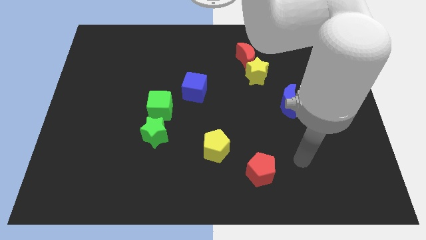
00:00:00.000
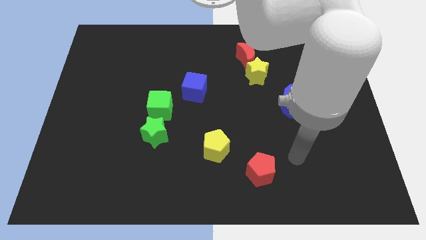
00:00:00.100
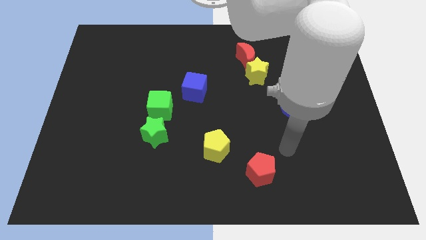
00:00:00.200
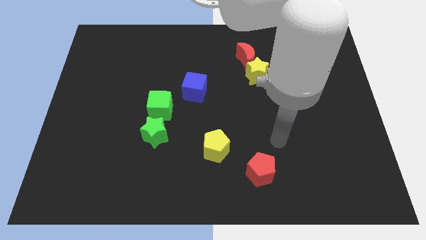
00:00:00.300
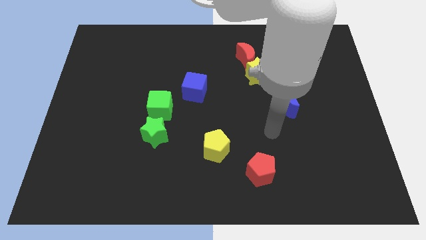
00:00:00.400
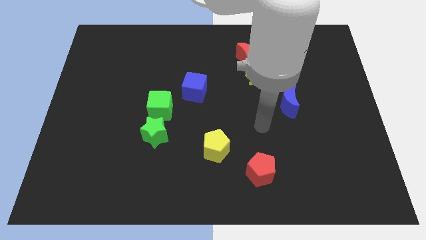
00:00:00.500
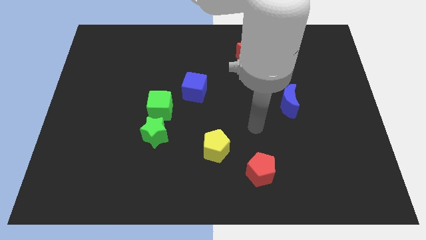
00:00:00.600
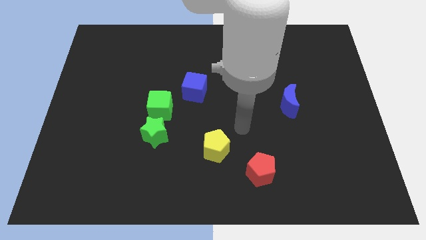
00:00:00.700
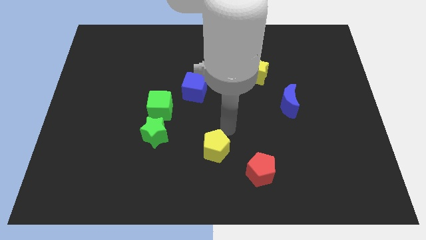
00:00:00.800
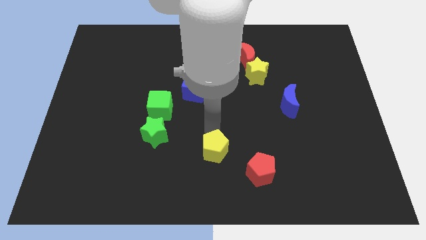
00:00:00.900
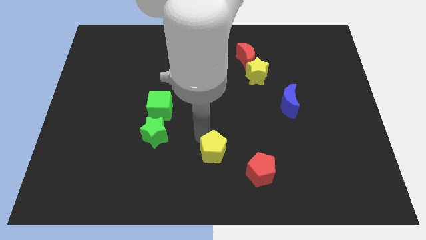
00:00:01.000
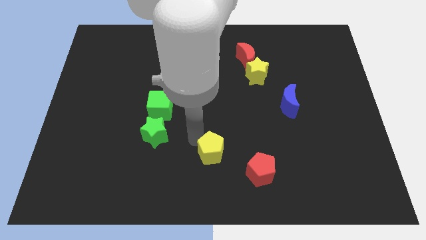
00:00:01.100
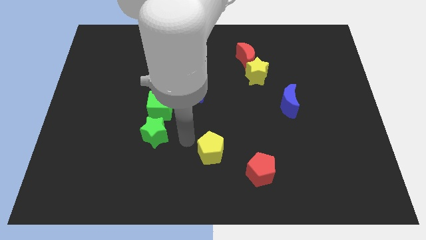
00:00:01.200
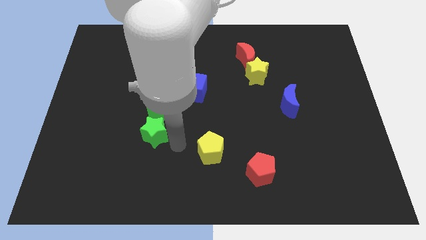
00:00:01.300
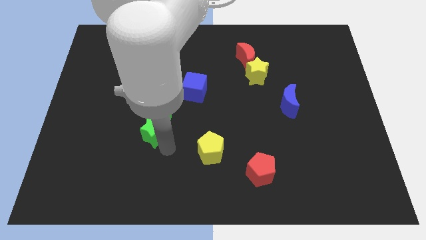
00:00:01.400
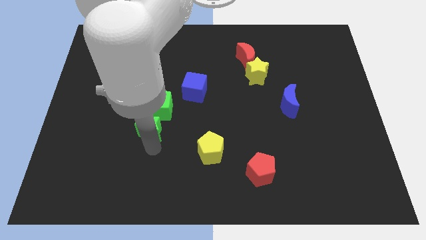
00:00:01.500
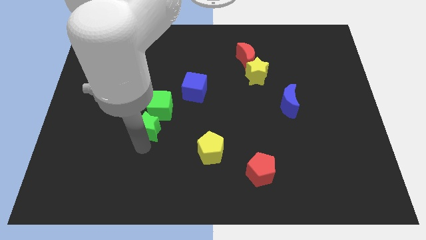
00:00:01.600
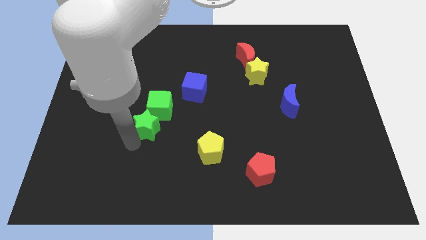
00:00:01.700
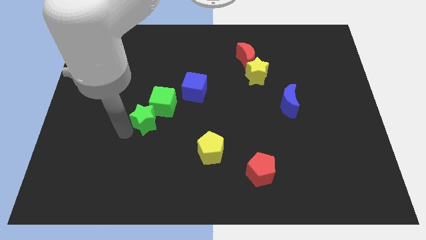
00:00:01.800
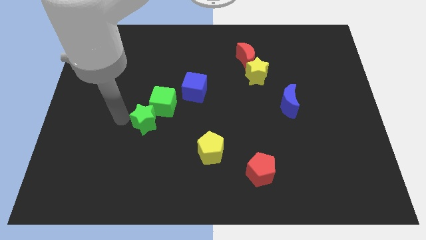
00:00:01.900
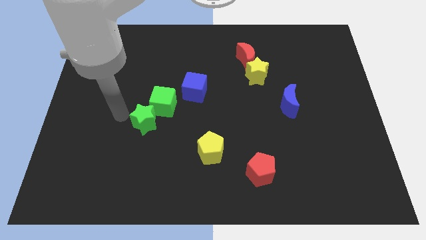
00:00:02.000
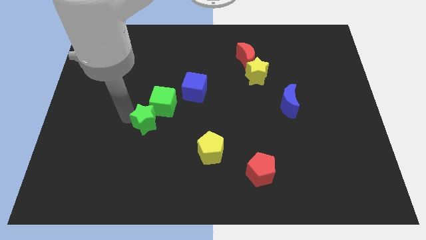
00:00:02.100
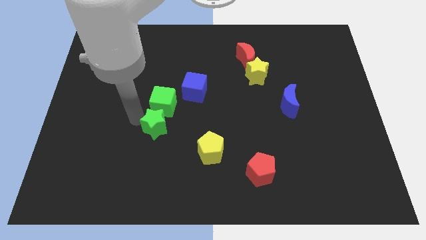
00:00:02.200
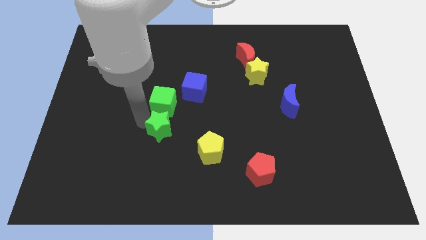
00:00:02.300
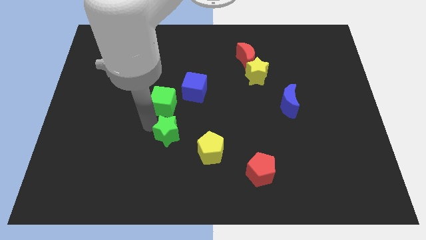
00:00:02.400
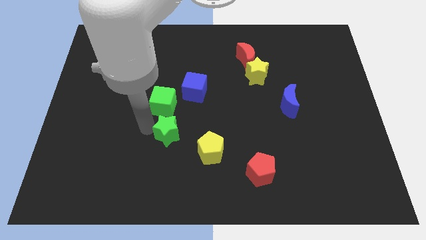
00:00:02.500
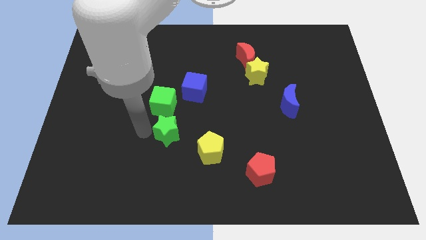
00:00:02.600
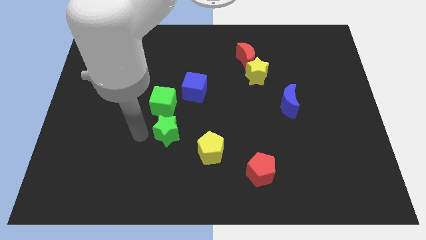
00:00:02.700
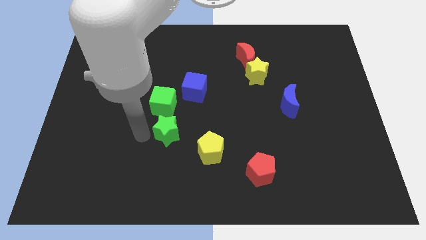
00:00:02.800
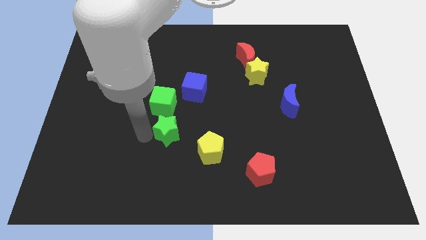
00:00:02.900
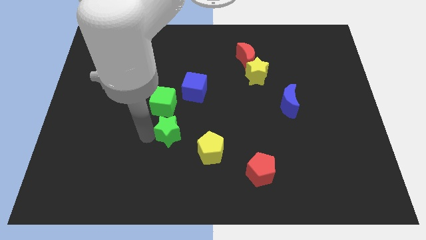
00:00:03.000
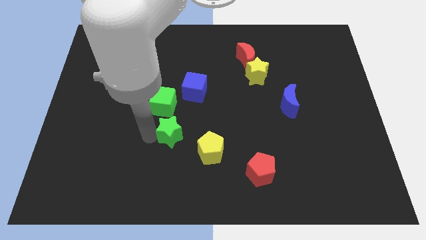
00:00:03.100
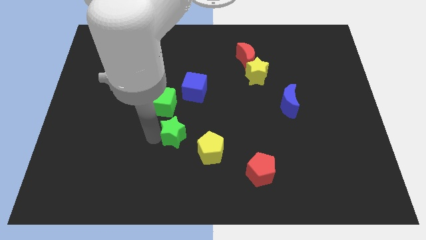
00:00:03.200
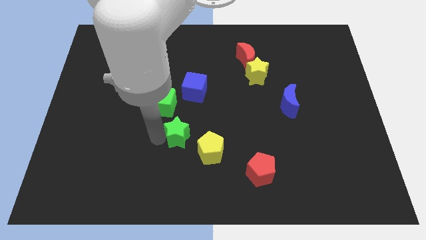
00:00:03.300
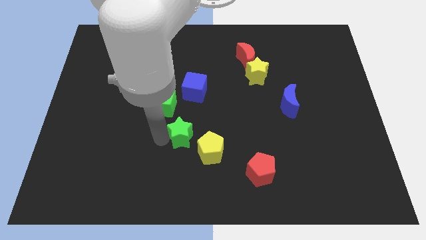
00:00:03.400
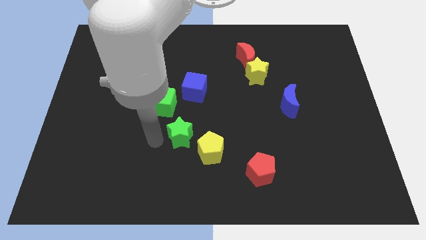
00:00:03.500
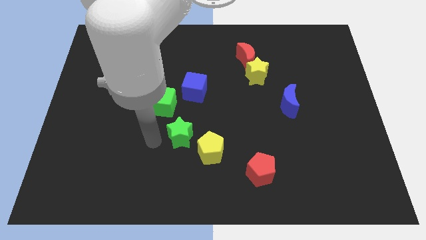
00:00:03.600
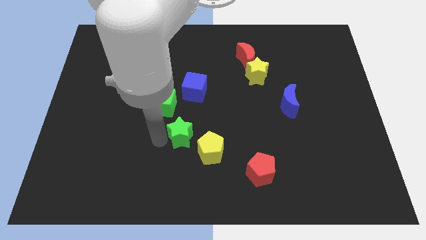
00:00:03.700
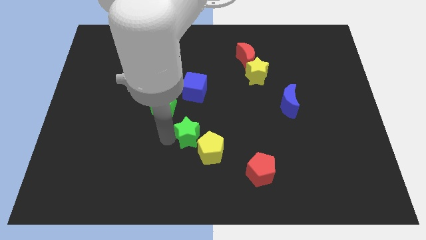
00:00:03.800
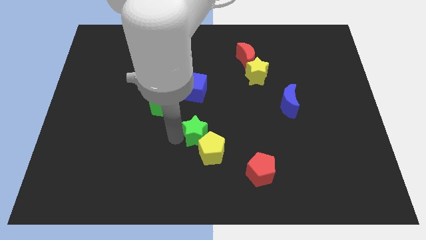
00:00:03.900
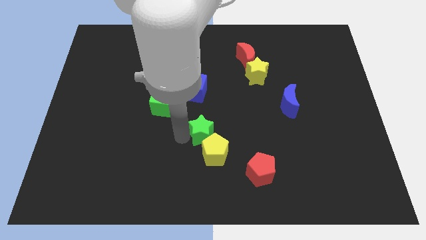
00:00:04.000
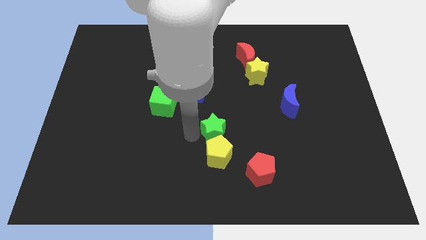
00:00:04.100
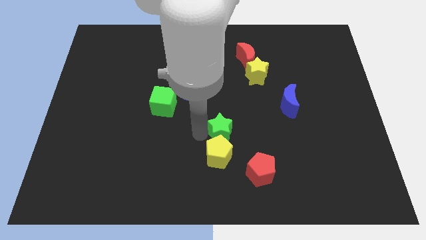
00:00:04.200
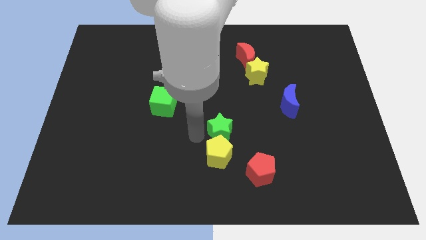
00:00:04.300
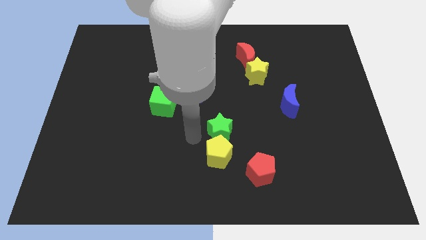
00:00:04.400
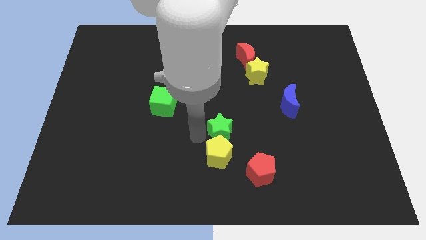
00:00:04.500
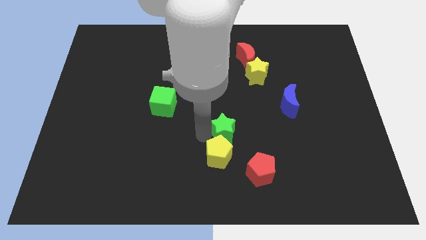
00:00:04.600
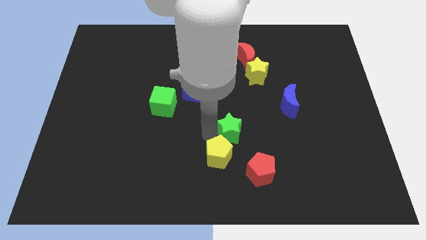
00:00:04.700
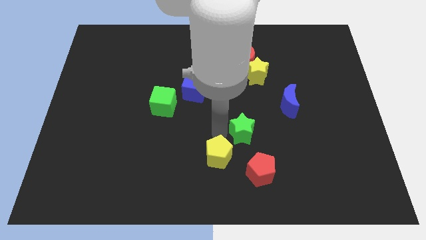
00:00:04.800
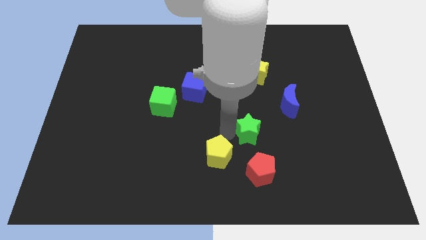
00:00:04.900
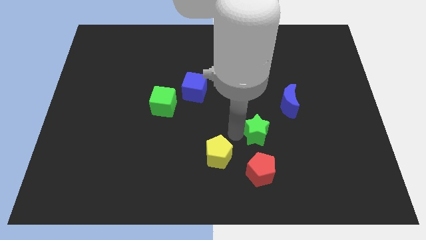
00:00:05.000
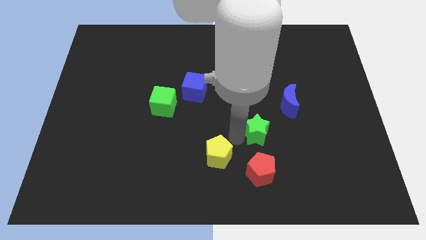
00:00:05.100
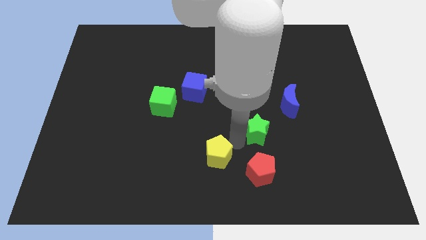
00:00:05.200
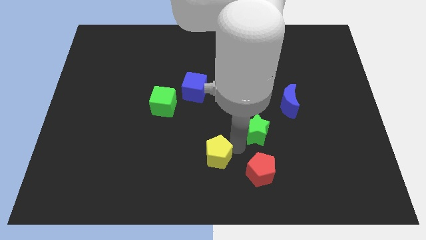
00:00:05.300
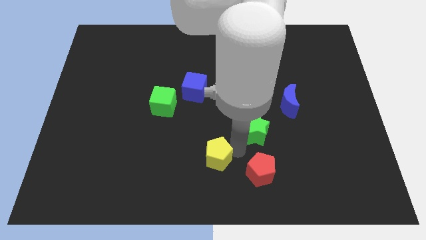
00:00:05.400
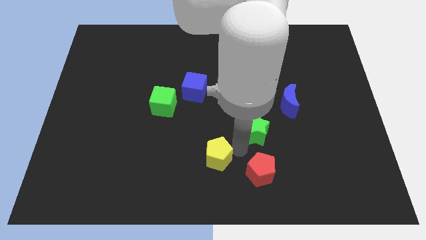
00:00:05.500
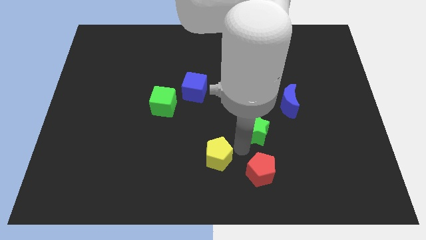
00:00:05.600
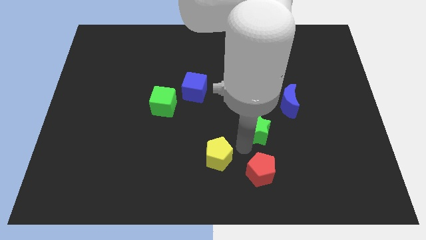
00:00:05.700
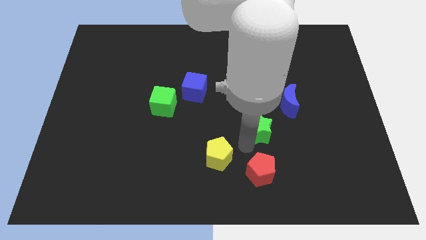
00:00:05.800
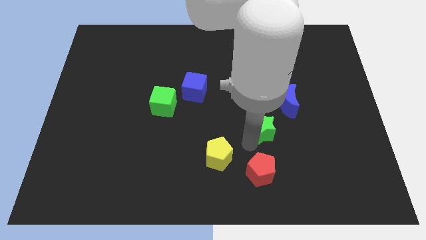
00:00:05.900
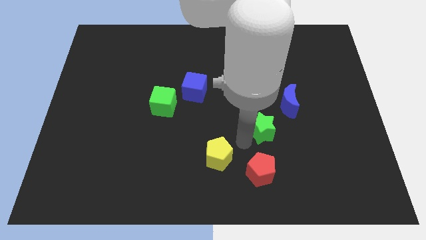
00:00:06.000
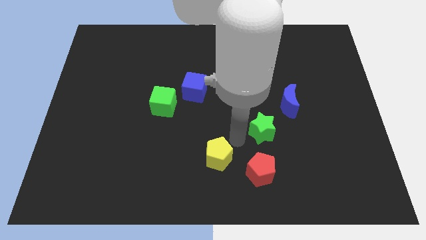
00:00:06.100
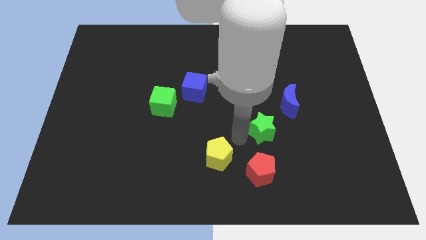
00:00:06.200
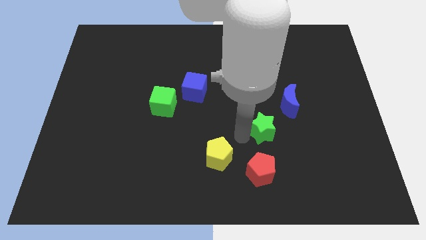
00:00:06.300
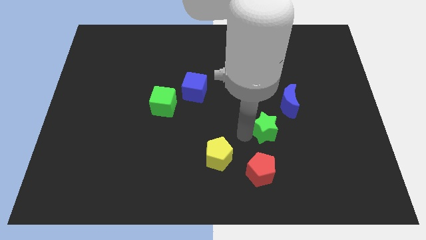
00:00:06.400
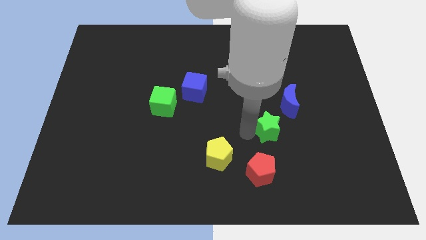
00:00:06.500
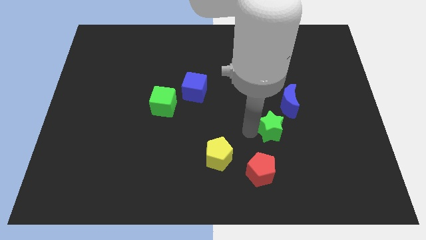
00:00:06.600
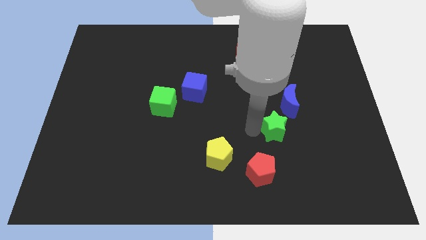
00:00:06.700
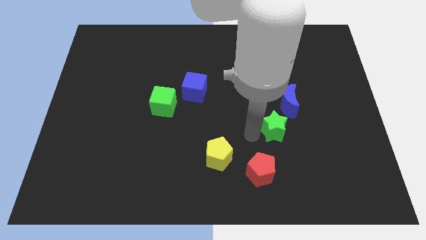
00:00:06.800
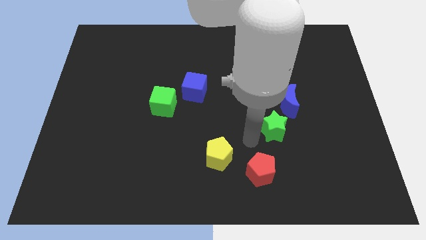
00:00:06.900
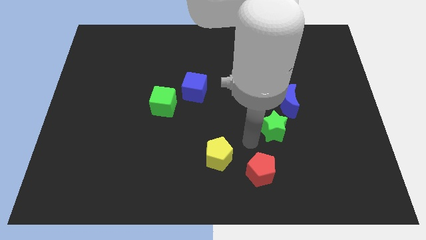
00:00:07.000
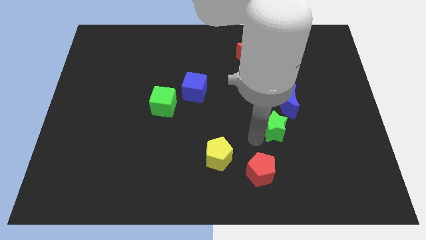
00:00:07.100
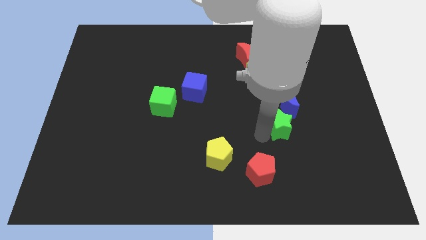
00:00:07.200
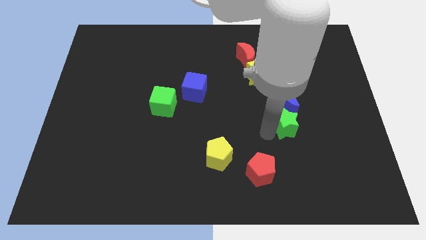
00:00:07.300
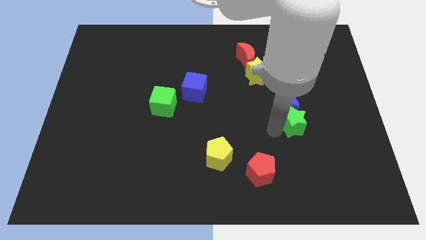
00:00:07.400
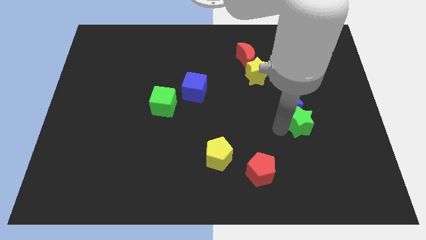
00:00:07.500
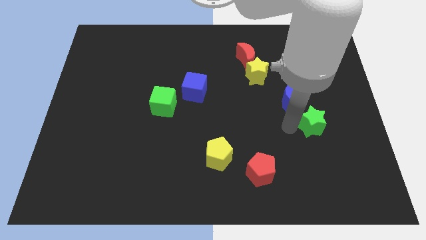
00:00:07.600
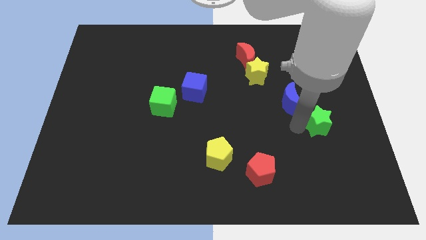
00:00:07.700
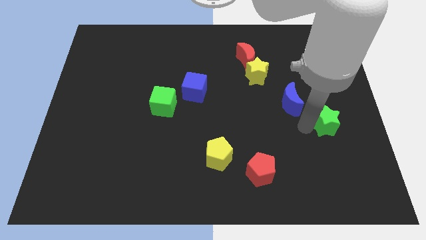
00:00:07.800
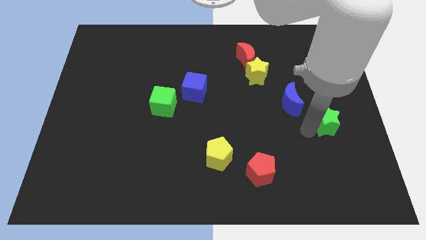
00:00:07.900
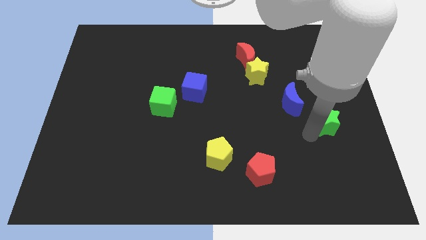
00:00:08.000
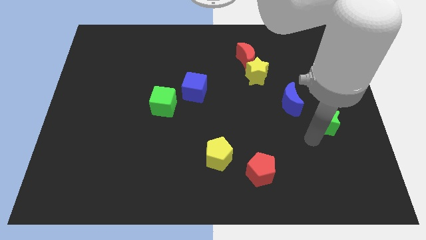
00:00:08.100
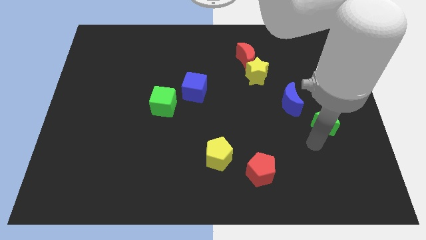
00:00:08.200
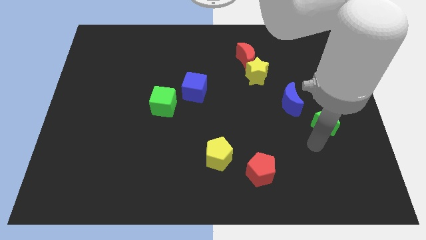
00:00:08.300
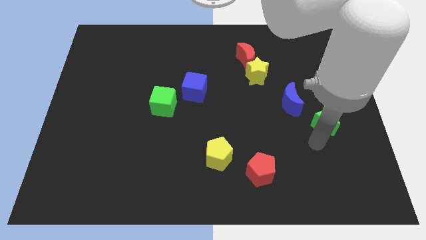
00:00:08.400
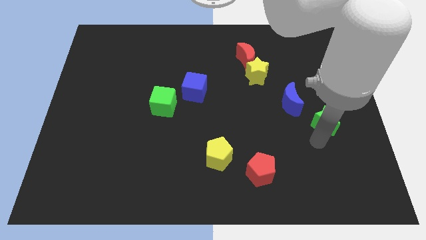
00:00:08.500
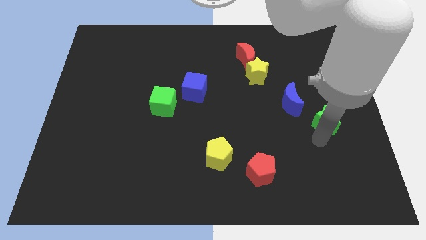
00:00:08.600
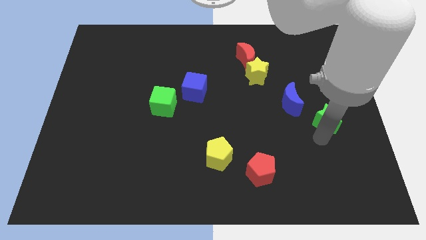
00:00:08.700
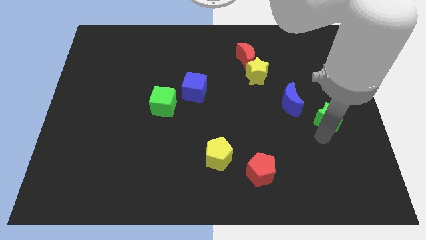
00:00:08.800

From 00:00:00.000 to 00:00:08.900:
push the green star to the right side of the board
